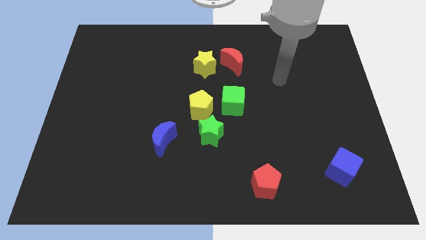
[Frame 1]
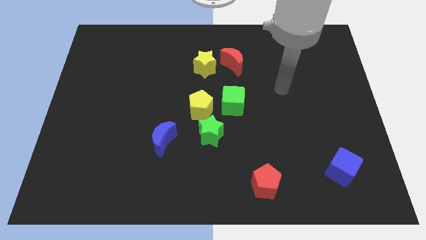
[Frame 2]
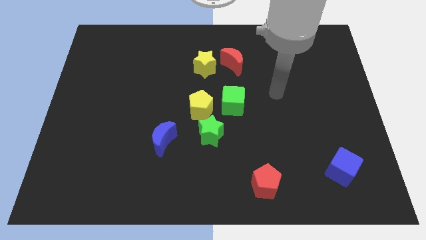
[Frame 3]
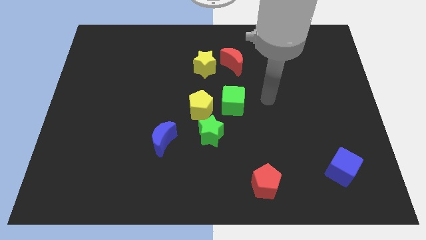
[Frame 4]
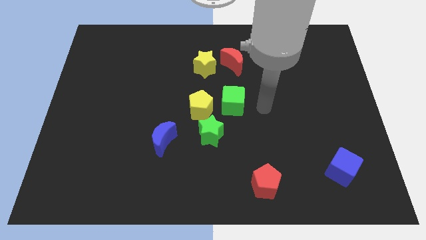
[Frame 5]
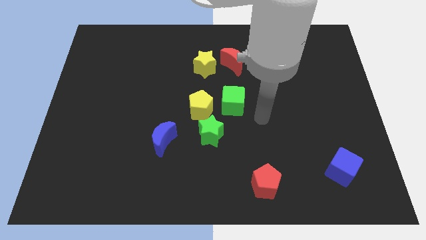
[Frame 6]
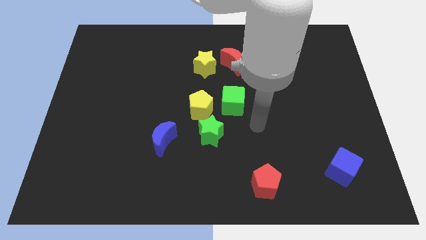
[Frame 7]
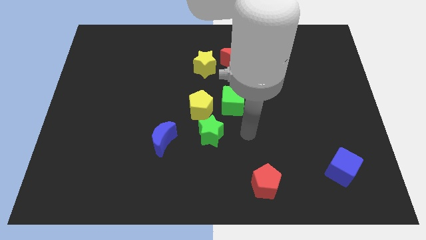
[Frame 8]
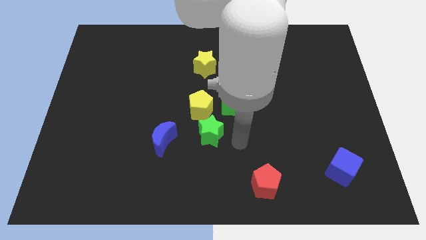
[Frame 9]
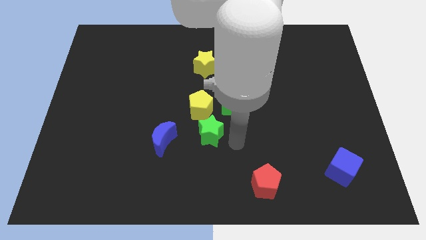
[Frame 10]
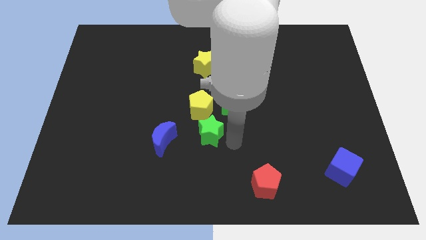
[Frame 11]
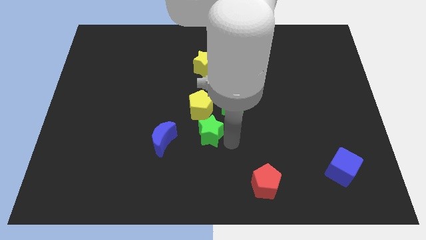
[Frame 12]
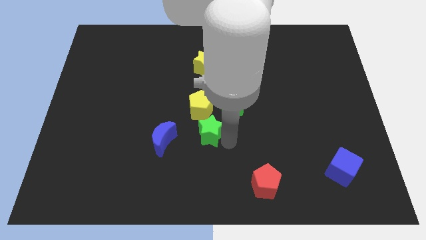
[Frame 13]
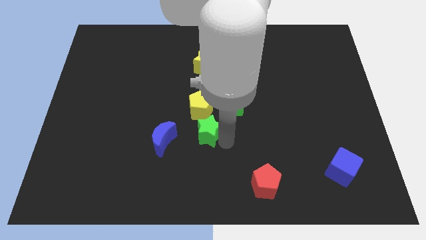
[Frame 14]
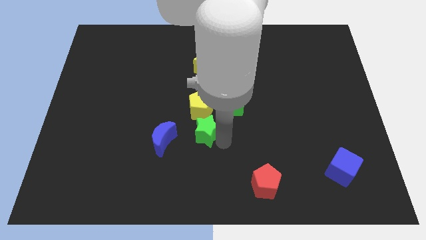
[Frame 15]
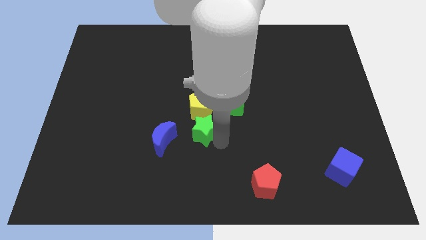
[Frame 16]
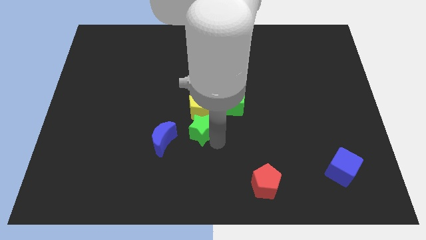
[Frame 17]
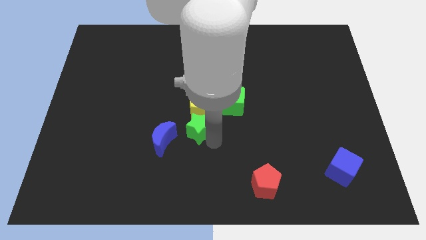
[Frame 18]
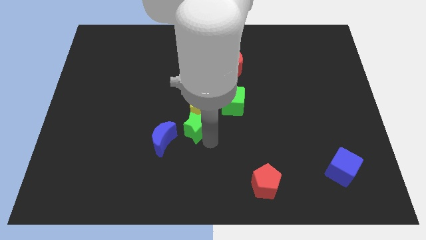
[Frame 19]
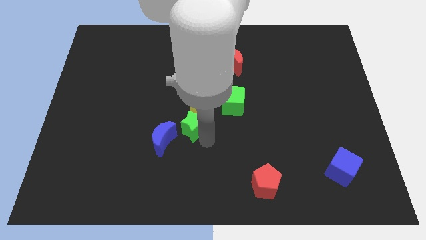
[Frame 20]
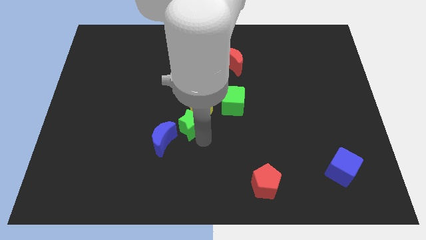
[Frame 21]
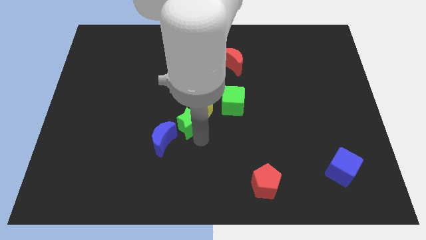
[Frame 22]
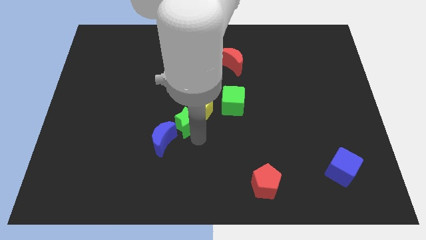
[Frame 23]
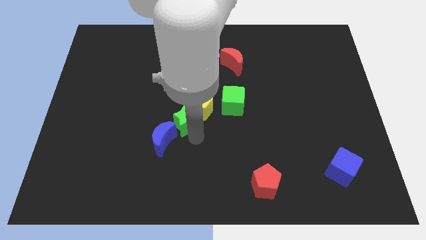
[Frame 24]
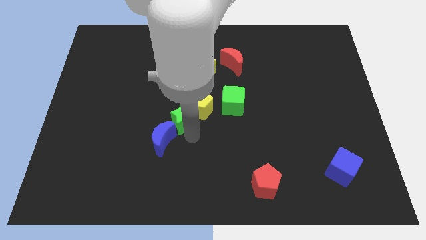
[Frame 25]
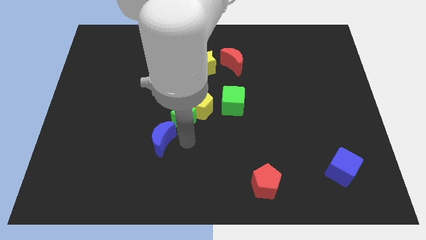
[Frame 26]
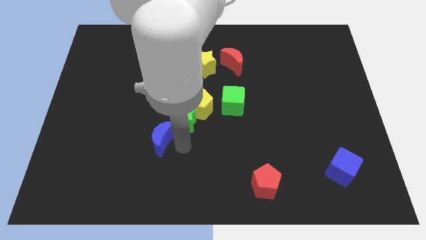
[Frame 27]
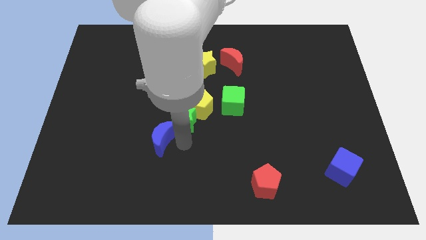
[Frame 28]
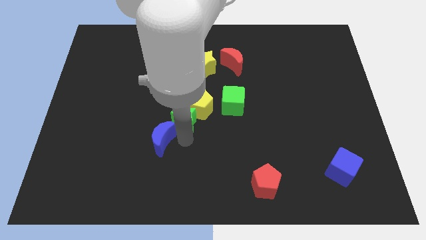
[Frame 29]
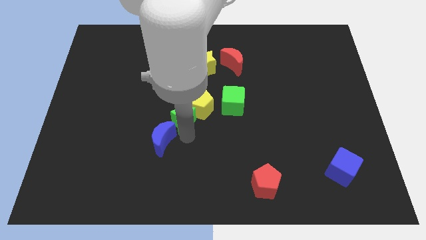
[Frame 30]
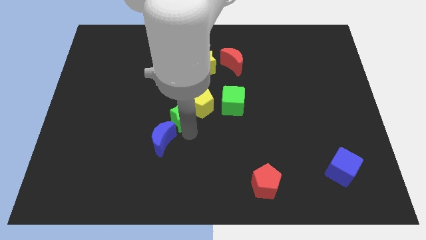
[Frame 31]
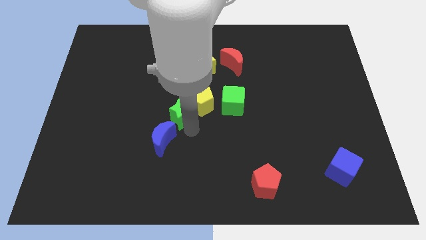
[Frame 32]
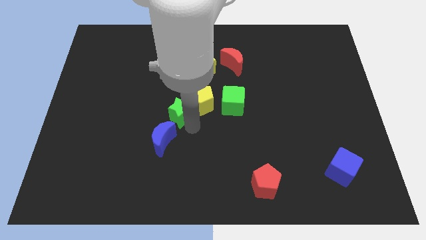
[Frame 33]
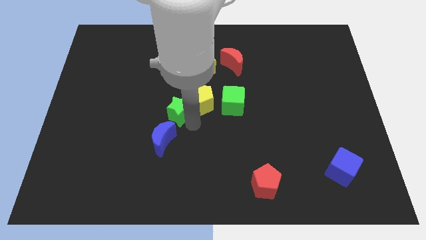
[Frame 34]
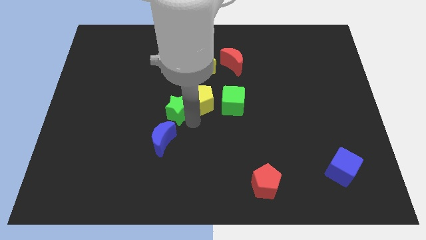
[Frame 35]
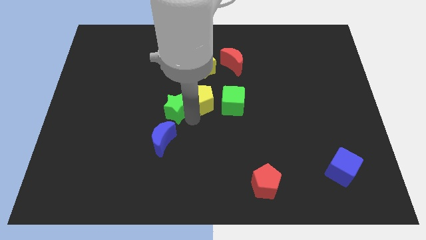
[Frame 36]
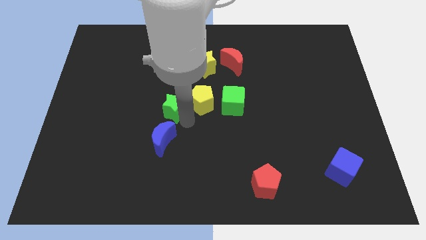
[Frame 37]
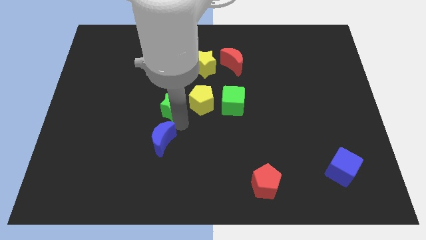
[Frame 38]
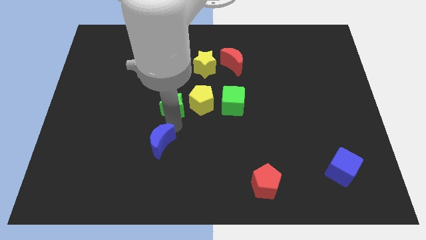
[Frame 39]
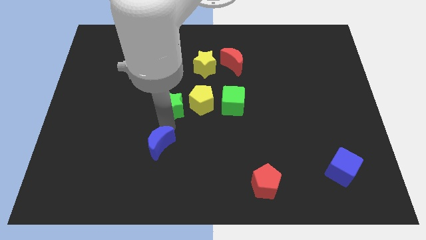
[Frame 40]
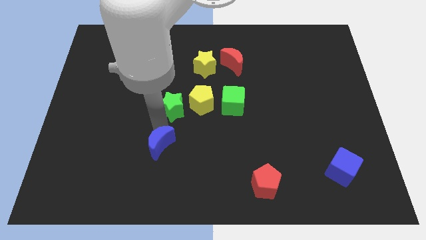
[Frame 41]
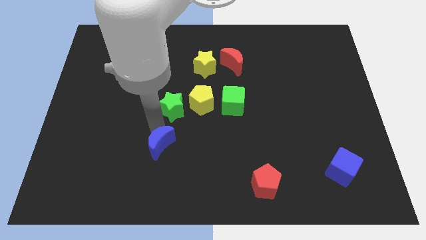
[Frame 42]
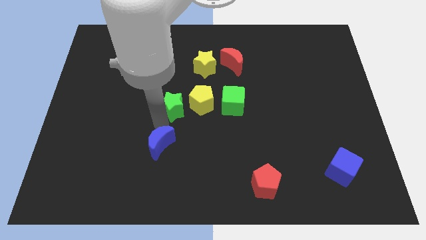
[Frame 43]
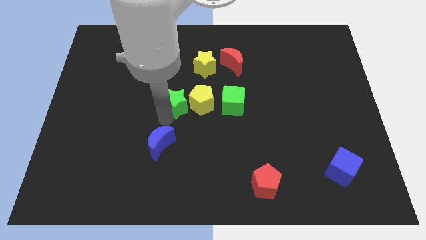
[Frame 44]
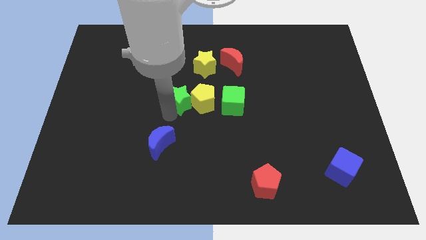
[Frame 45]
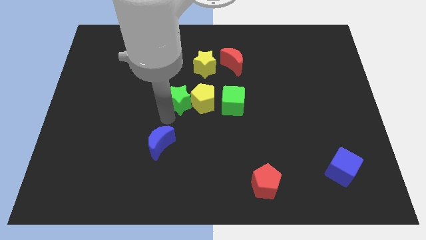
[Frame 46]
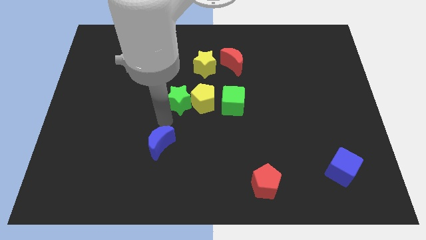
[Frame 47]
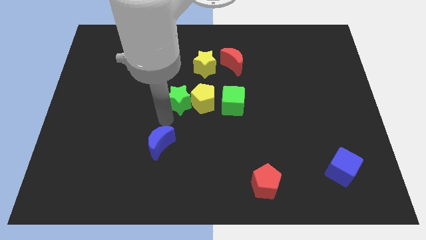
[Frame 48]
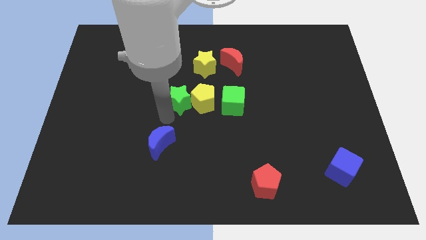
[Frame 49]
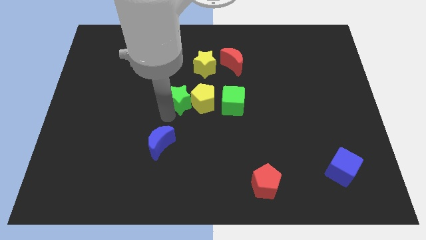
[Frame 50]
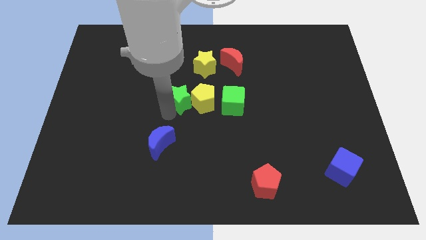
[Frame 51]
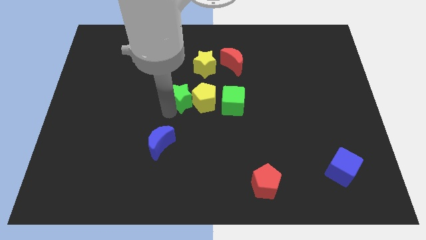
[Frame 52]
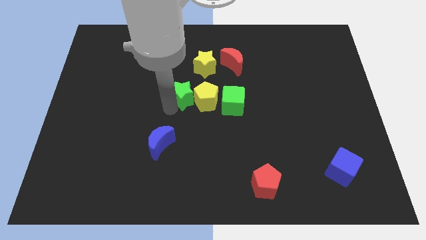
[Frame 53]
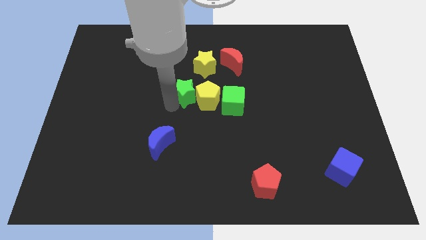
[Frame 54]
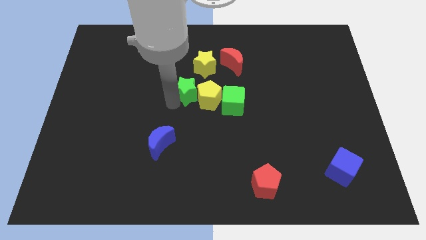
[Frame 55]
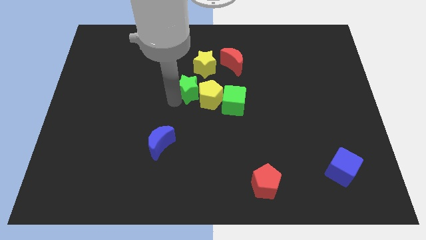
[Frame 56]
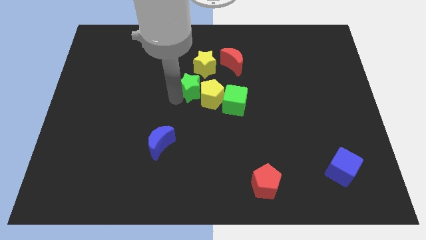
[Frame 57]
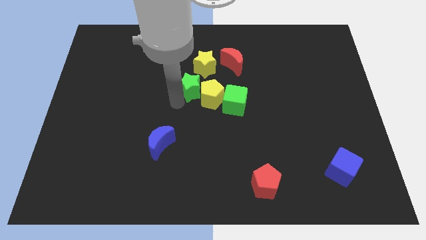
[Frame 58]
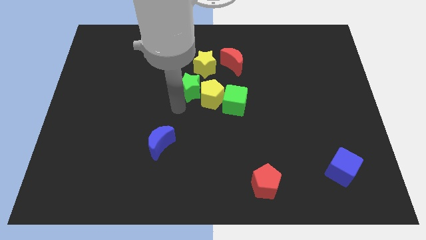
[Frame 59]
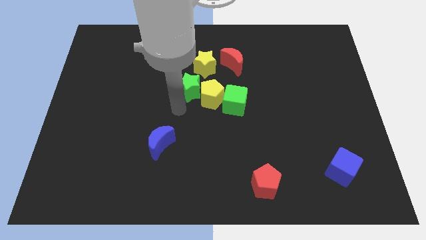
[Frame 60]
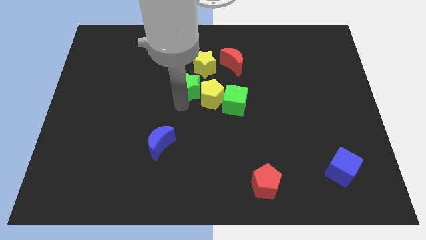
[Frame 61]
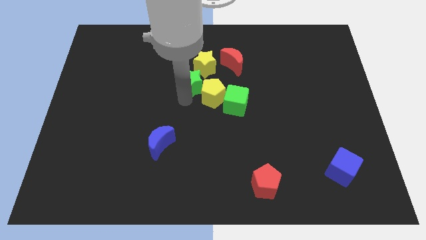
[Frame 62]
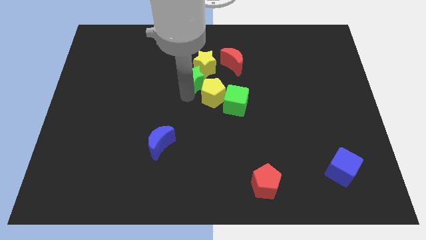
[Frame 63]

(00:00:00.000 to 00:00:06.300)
put the green star close to the yellow star
